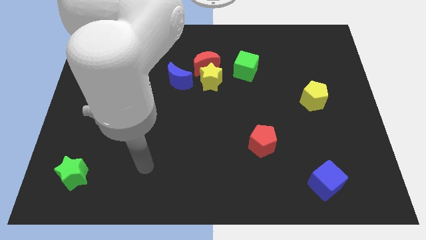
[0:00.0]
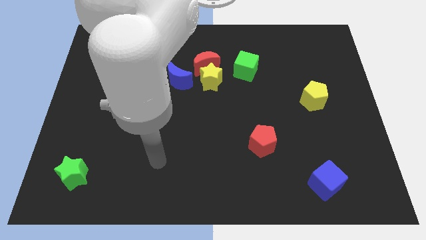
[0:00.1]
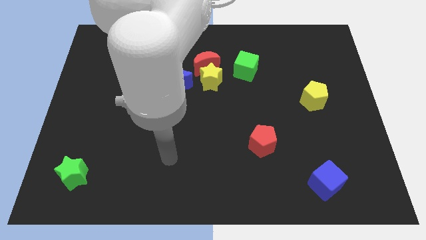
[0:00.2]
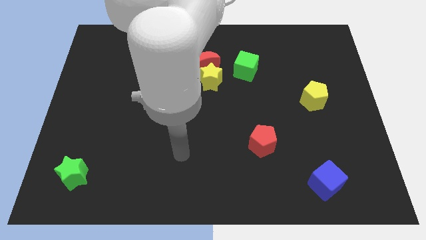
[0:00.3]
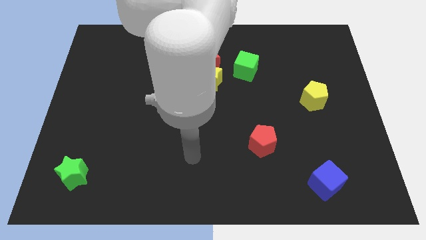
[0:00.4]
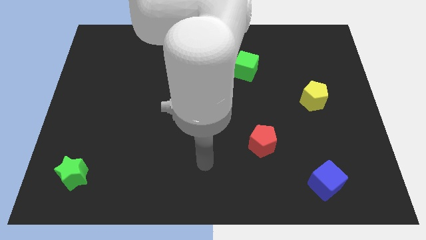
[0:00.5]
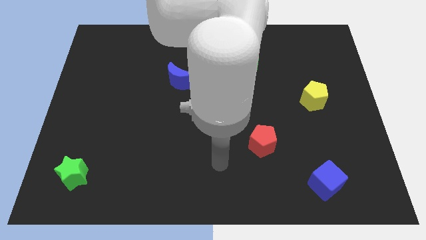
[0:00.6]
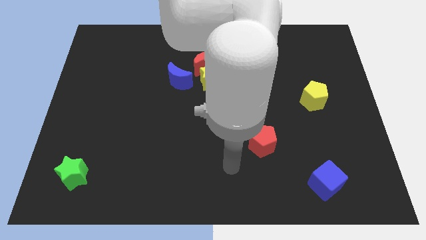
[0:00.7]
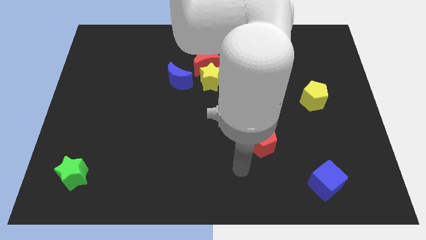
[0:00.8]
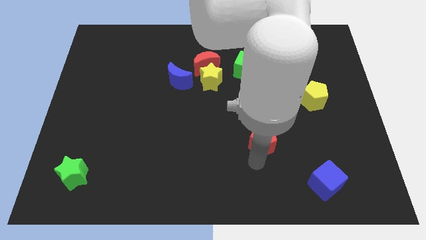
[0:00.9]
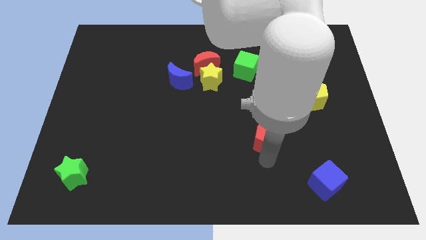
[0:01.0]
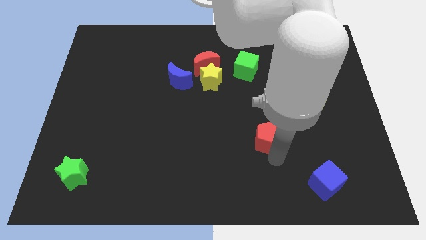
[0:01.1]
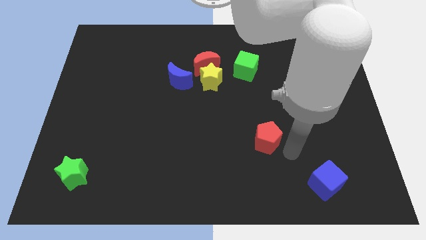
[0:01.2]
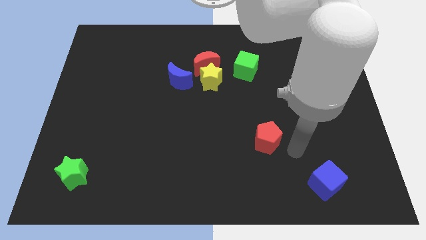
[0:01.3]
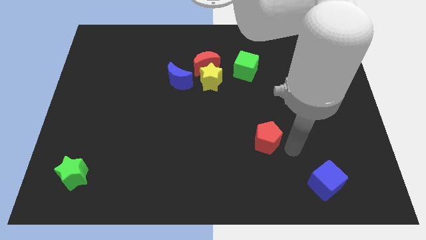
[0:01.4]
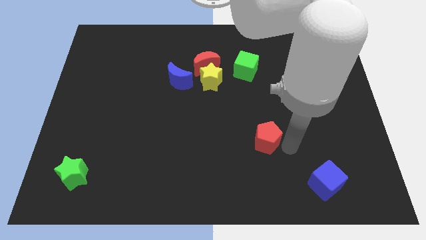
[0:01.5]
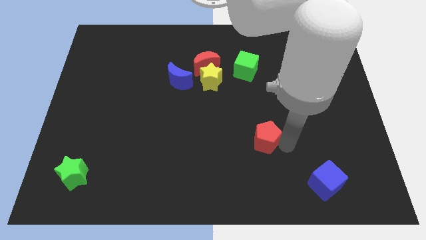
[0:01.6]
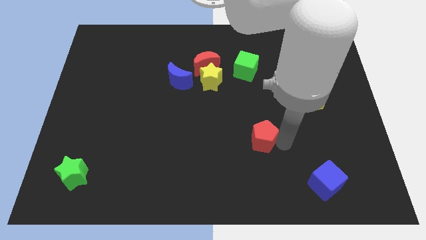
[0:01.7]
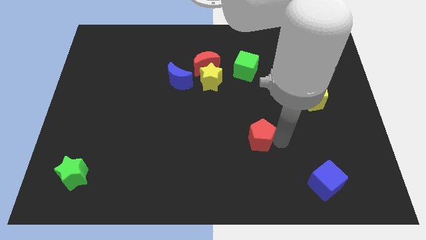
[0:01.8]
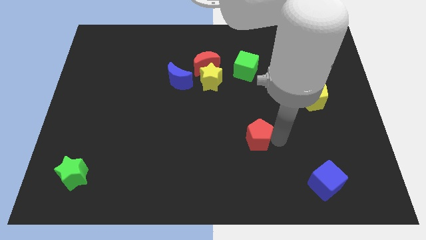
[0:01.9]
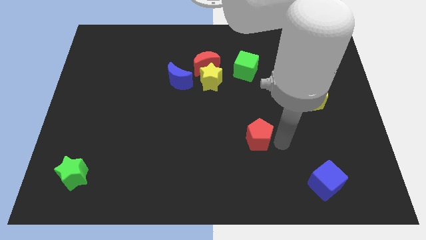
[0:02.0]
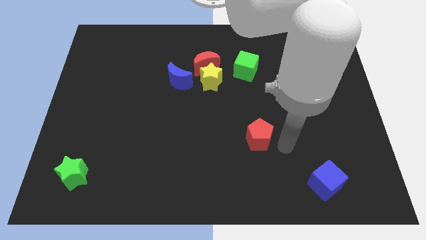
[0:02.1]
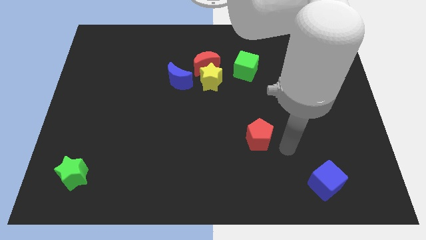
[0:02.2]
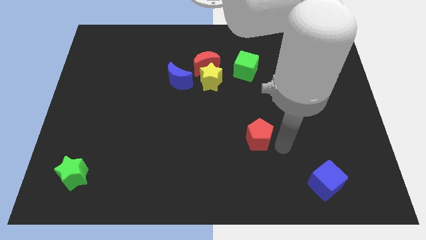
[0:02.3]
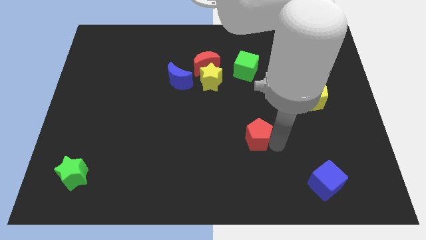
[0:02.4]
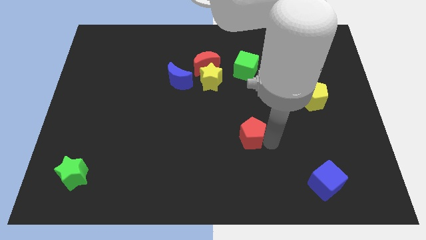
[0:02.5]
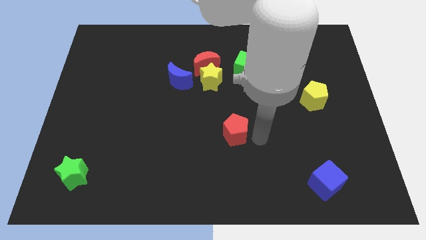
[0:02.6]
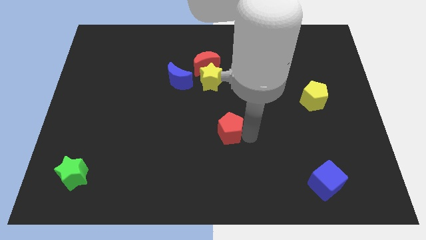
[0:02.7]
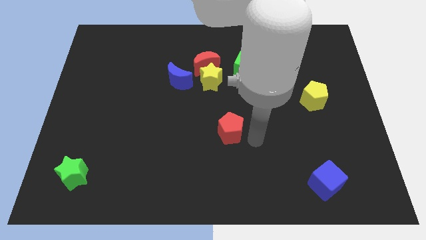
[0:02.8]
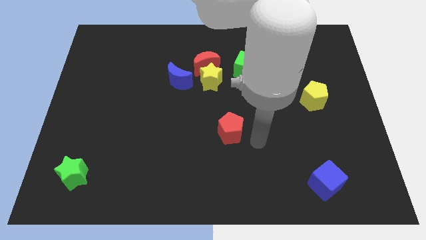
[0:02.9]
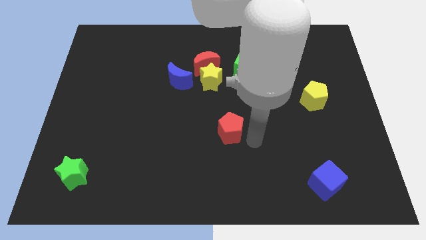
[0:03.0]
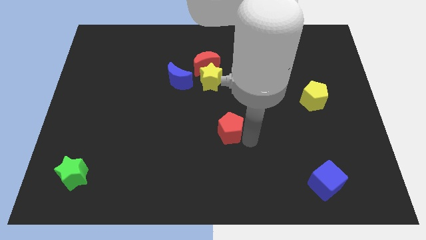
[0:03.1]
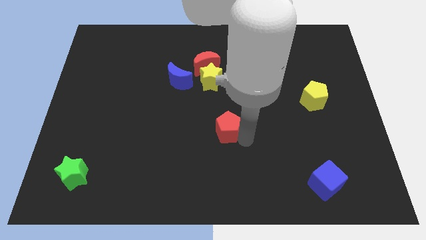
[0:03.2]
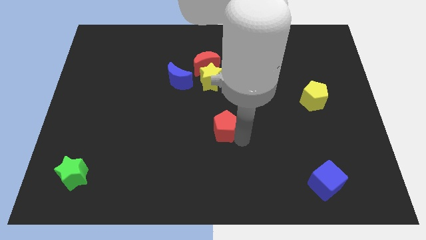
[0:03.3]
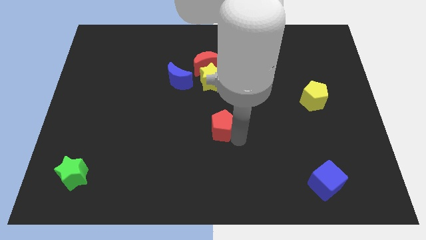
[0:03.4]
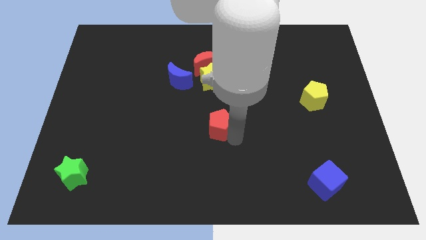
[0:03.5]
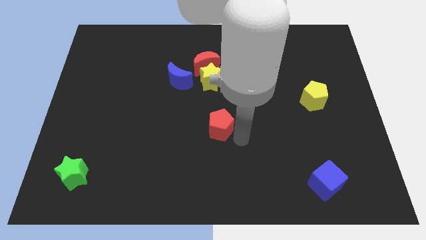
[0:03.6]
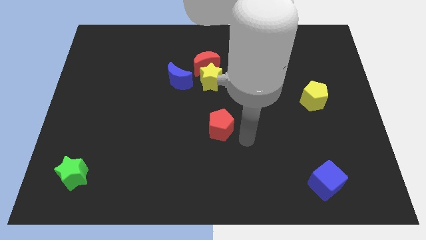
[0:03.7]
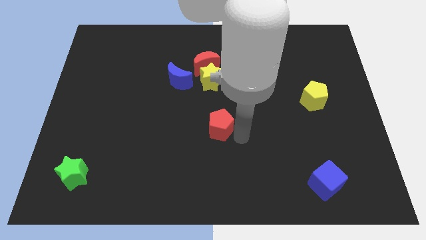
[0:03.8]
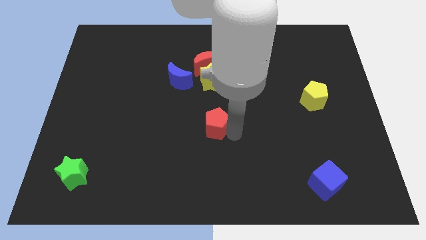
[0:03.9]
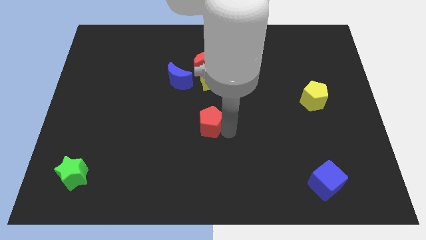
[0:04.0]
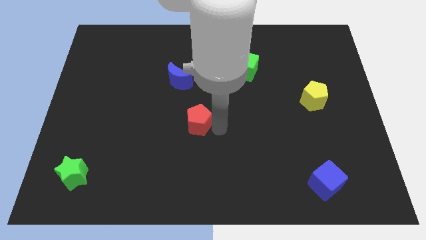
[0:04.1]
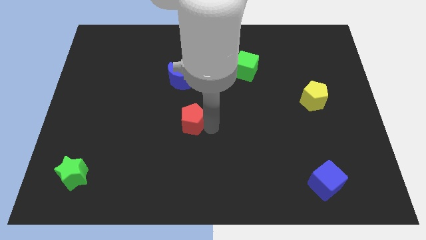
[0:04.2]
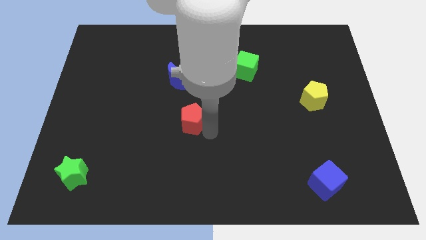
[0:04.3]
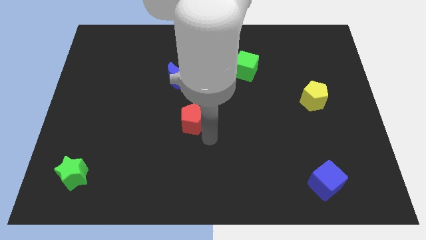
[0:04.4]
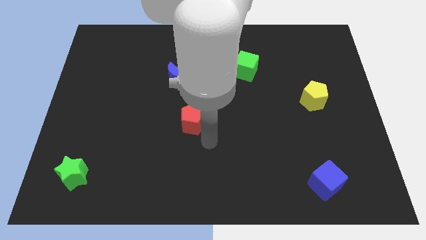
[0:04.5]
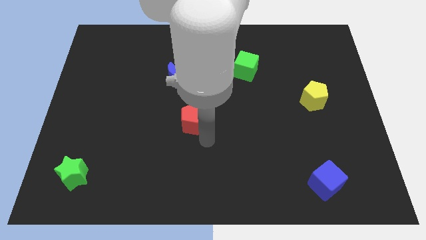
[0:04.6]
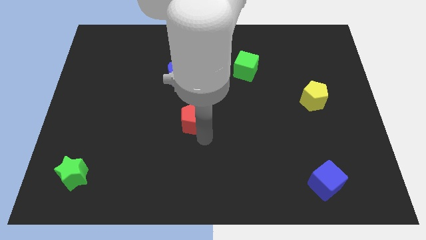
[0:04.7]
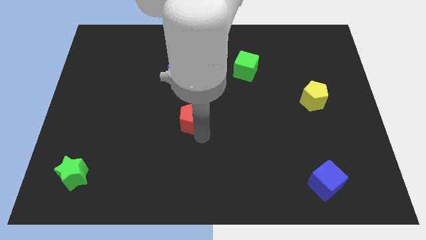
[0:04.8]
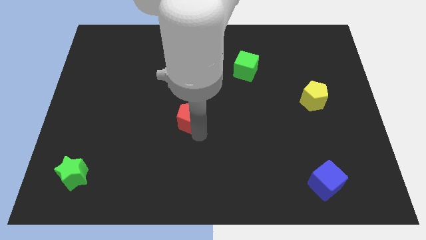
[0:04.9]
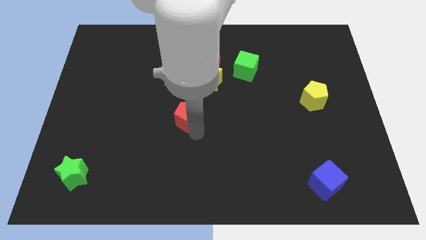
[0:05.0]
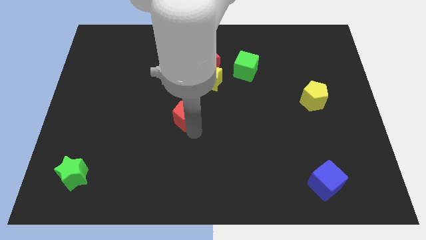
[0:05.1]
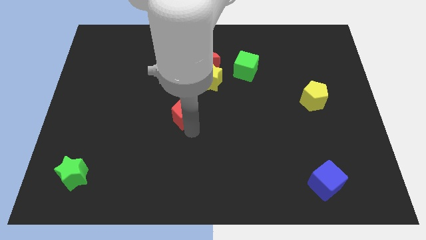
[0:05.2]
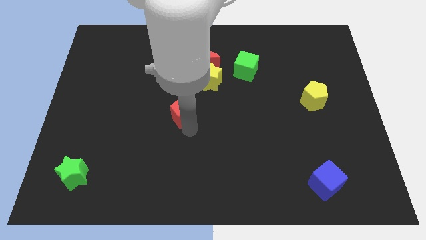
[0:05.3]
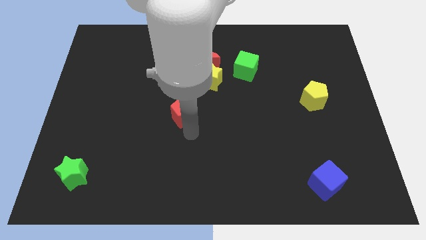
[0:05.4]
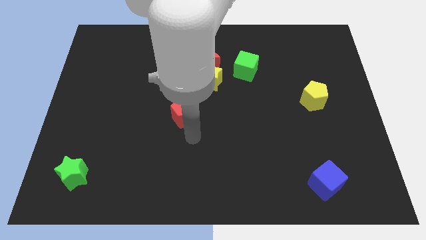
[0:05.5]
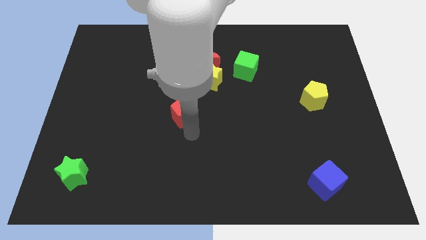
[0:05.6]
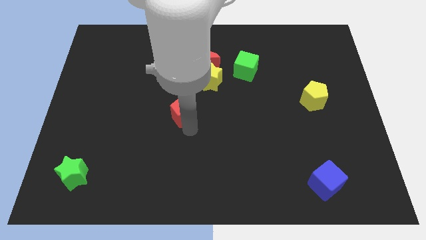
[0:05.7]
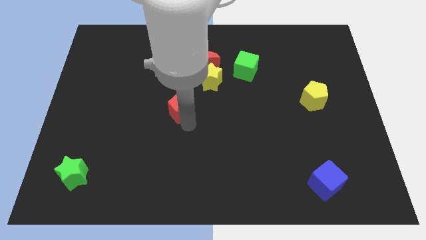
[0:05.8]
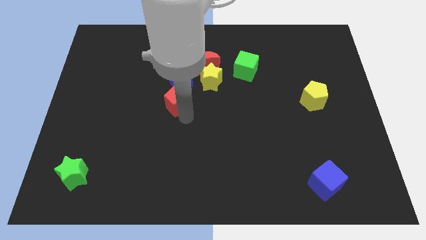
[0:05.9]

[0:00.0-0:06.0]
slide the red pentagon diagonally up and to the left

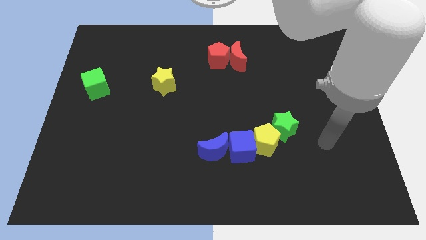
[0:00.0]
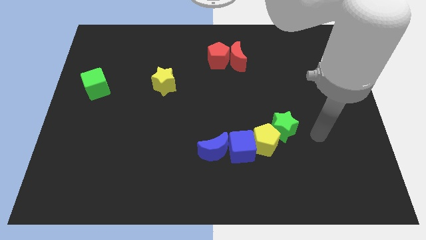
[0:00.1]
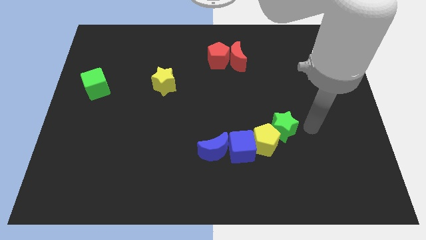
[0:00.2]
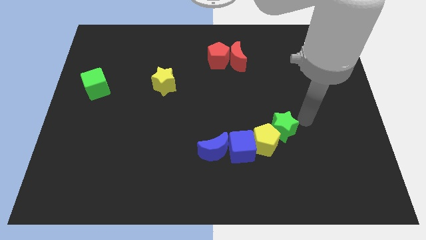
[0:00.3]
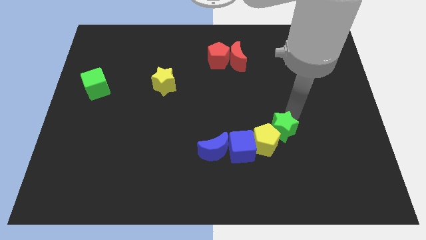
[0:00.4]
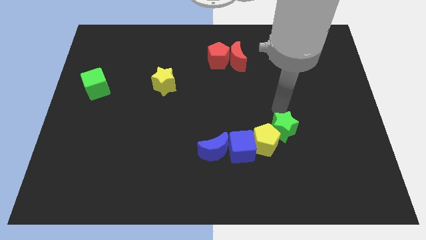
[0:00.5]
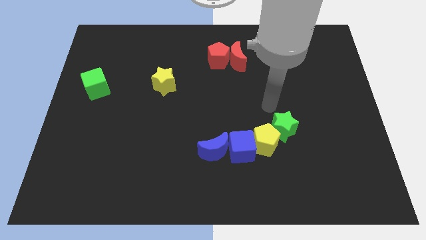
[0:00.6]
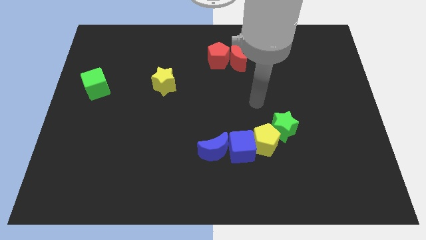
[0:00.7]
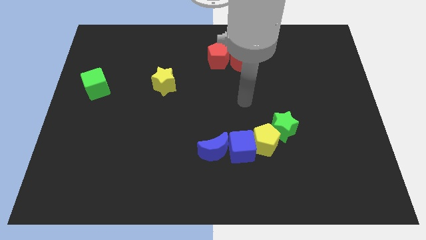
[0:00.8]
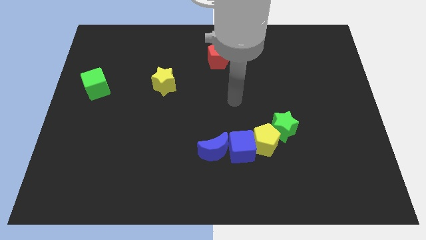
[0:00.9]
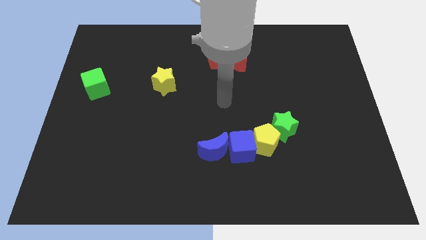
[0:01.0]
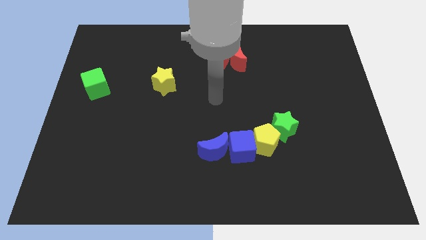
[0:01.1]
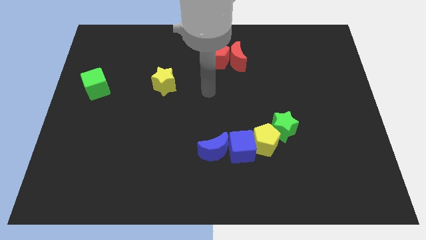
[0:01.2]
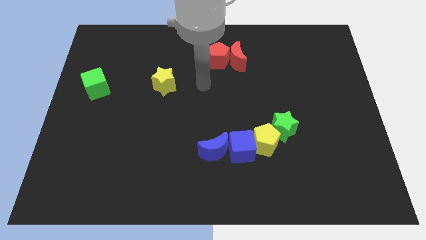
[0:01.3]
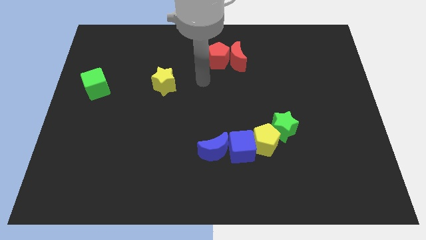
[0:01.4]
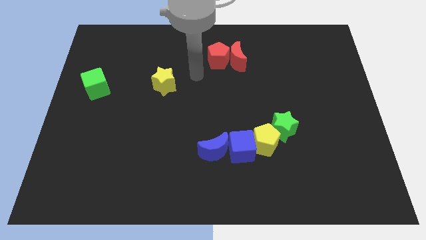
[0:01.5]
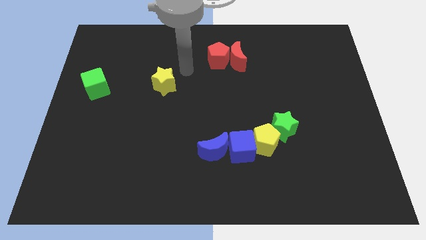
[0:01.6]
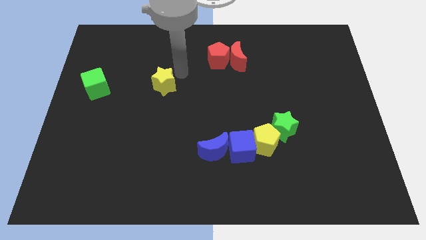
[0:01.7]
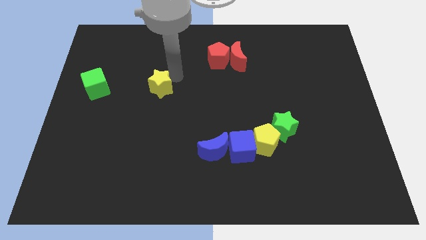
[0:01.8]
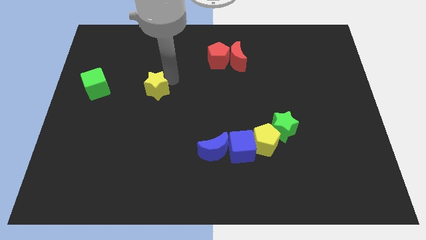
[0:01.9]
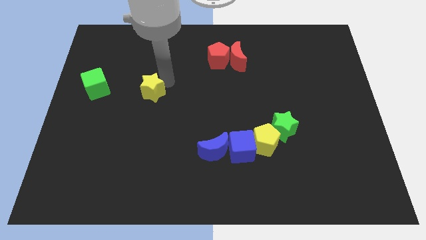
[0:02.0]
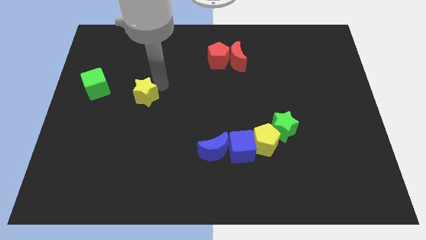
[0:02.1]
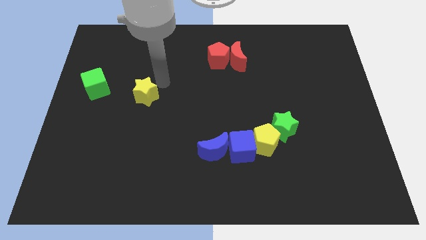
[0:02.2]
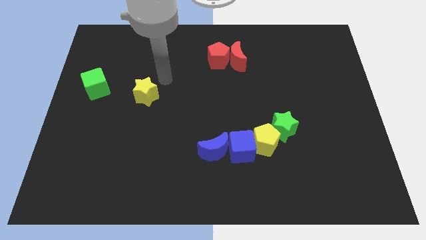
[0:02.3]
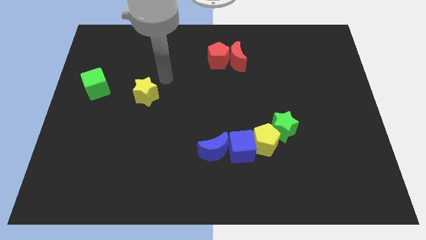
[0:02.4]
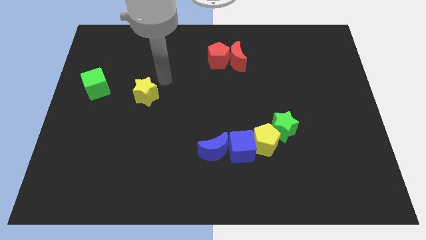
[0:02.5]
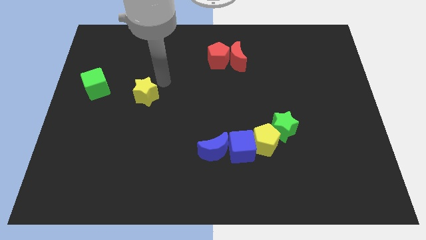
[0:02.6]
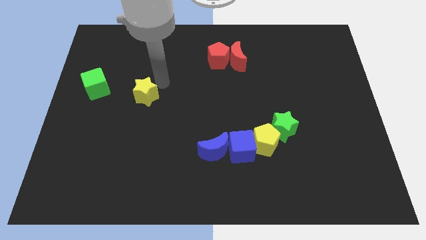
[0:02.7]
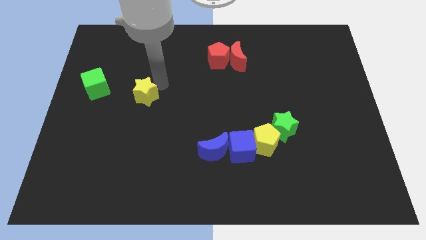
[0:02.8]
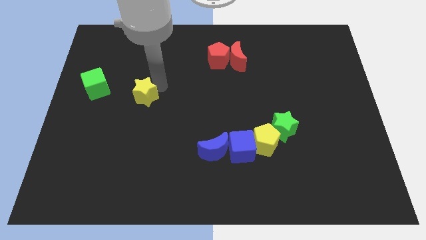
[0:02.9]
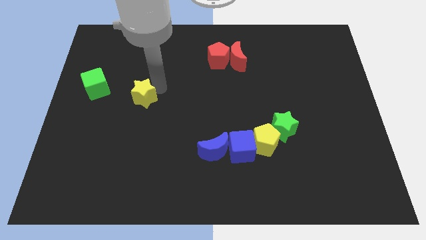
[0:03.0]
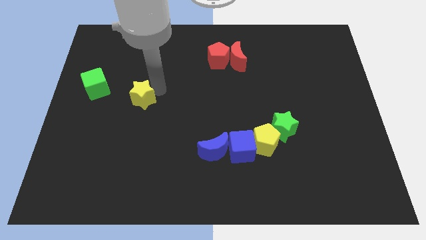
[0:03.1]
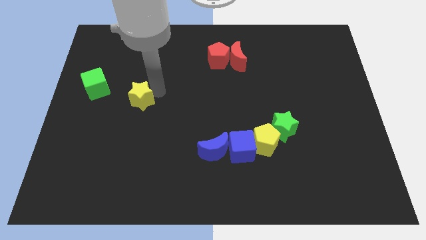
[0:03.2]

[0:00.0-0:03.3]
slide the yellow star down and left a little bit
